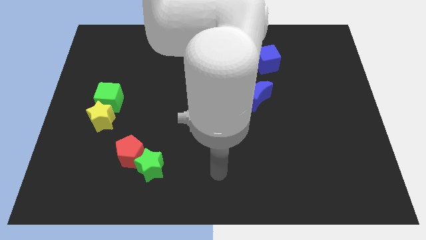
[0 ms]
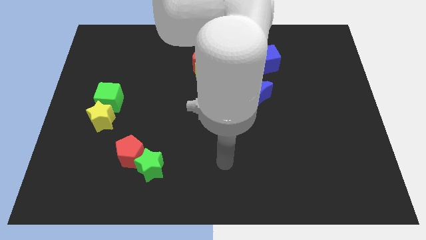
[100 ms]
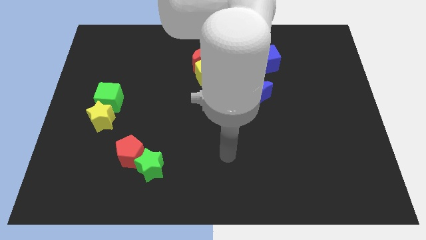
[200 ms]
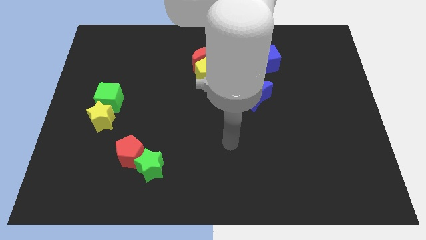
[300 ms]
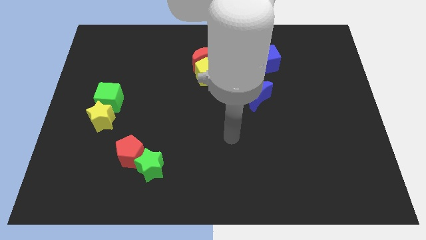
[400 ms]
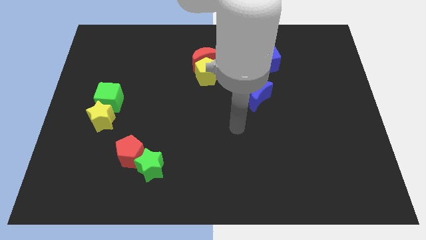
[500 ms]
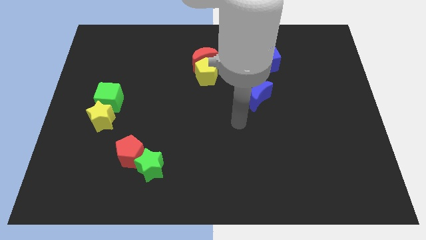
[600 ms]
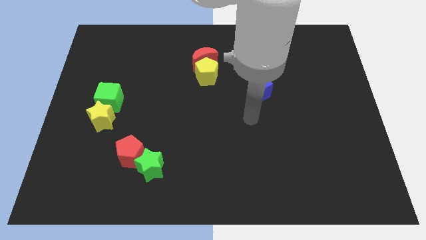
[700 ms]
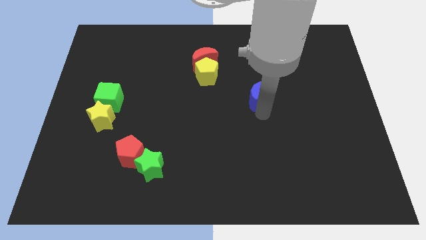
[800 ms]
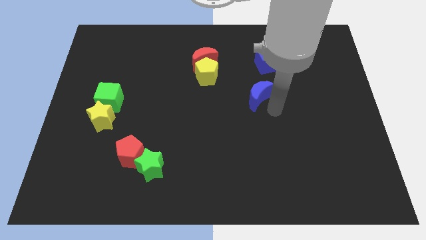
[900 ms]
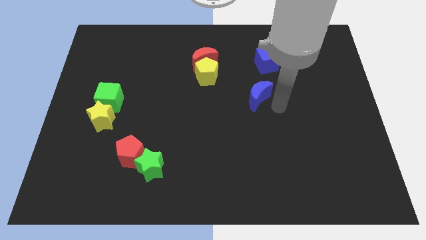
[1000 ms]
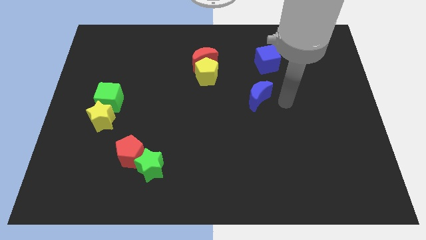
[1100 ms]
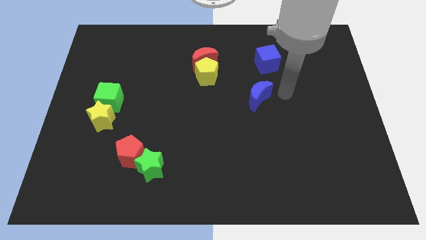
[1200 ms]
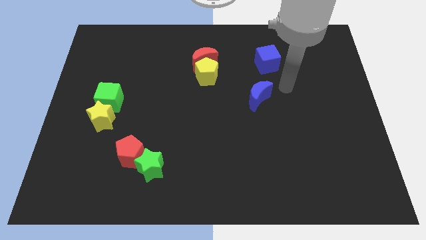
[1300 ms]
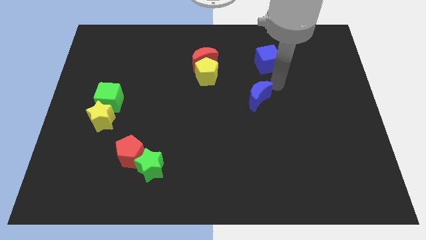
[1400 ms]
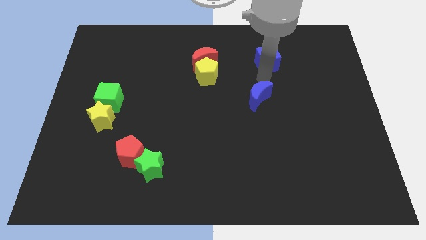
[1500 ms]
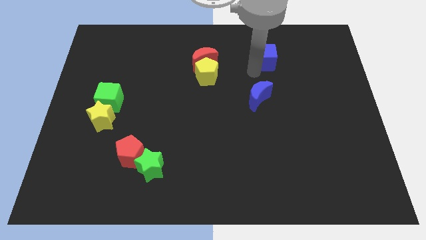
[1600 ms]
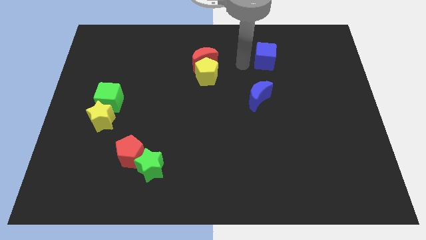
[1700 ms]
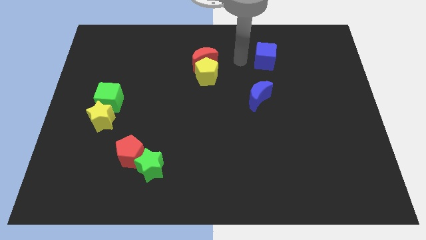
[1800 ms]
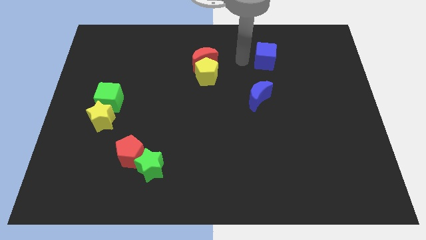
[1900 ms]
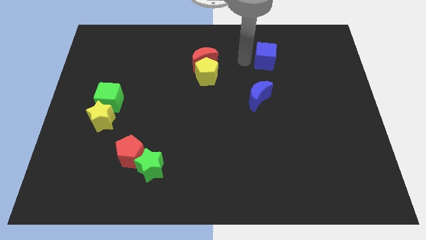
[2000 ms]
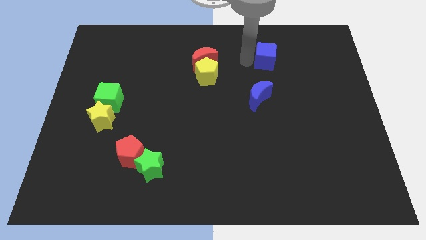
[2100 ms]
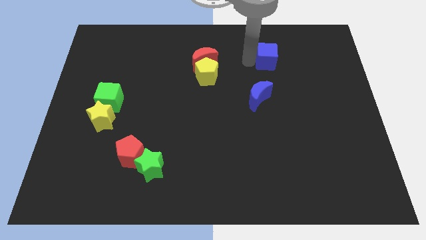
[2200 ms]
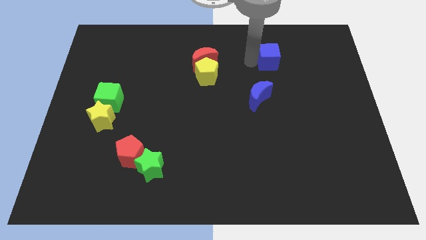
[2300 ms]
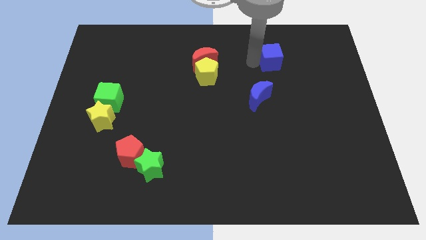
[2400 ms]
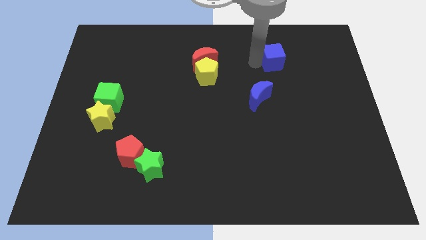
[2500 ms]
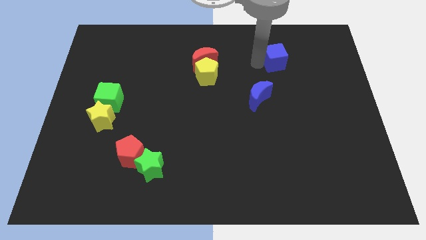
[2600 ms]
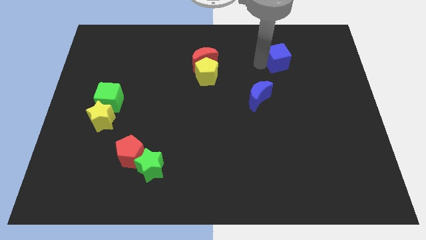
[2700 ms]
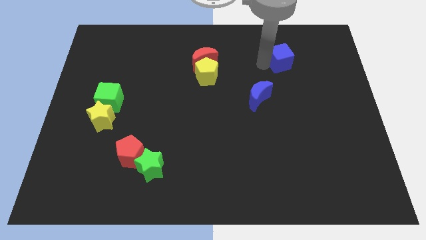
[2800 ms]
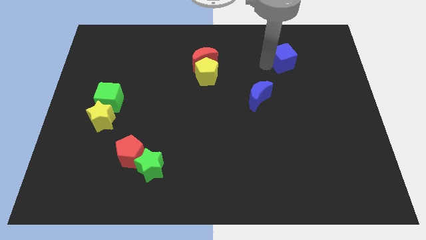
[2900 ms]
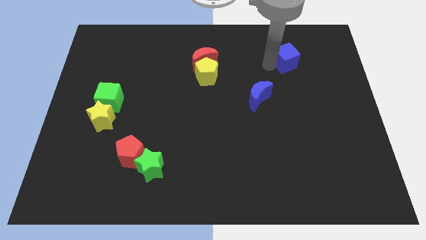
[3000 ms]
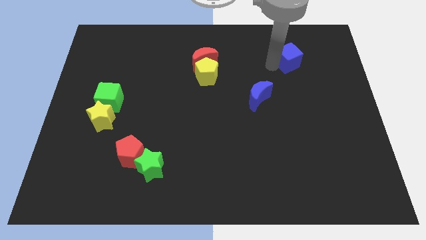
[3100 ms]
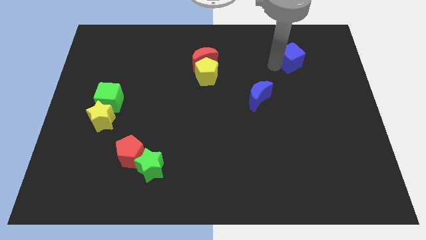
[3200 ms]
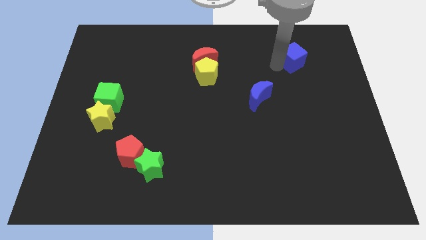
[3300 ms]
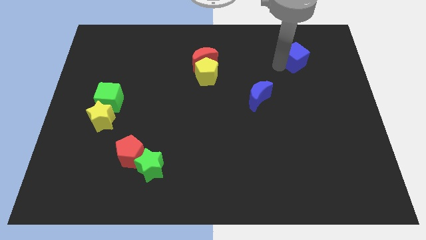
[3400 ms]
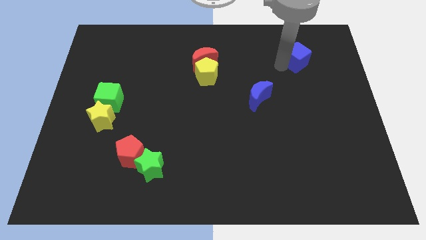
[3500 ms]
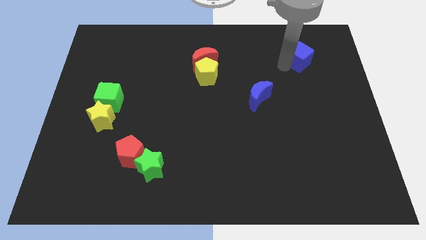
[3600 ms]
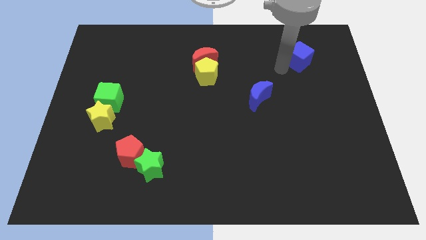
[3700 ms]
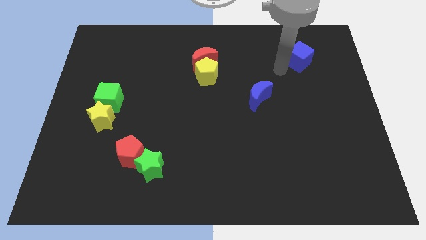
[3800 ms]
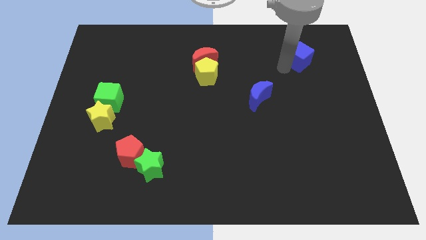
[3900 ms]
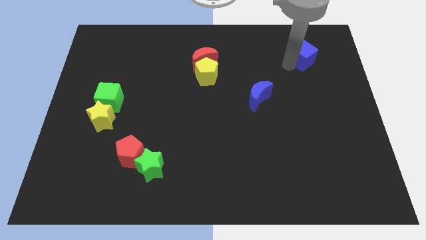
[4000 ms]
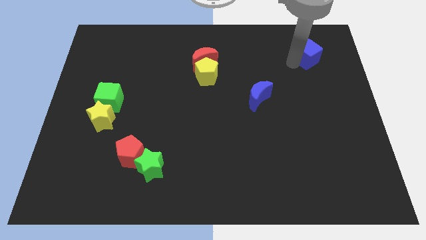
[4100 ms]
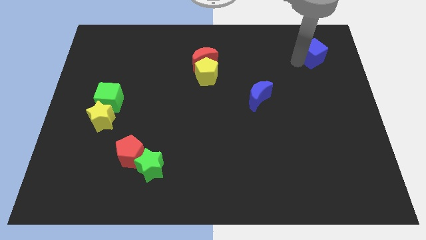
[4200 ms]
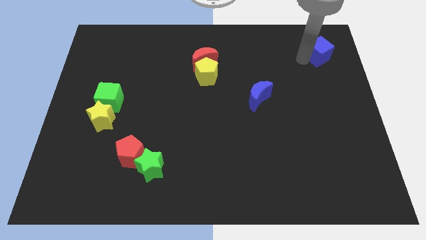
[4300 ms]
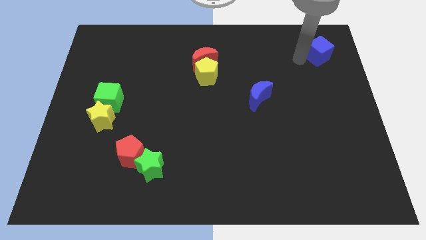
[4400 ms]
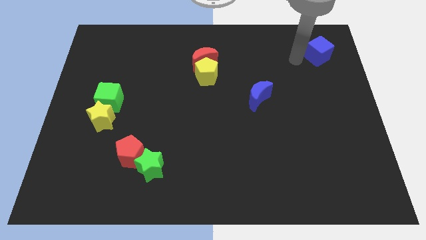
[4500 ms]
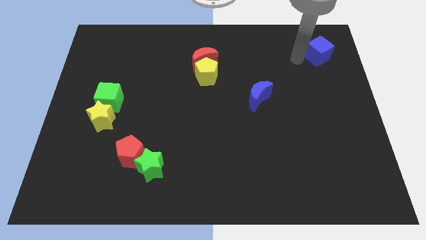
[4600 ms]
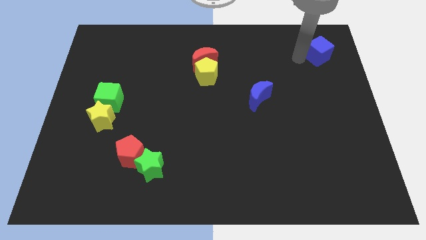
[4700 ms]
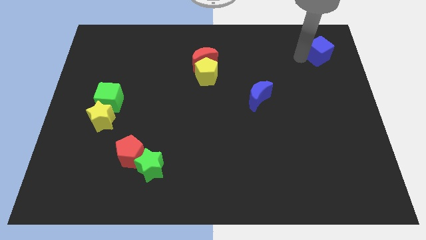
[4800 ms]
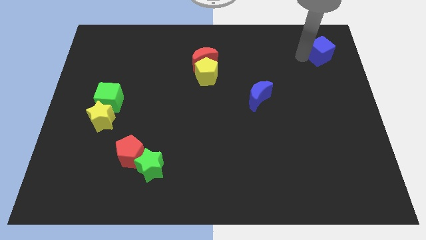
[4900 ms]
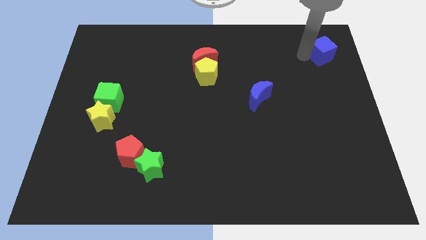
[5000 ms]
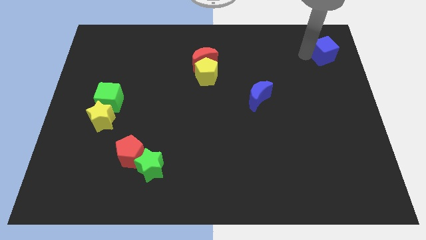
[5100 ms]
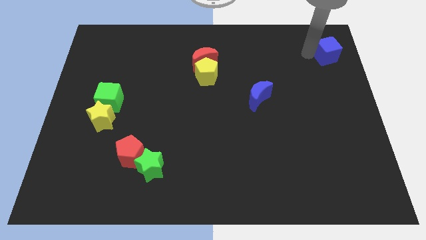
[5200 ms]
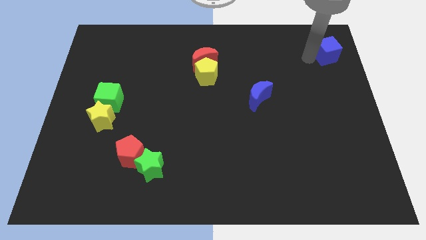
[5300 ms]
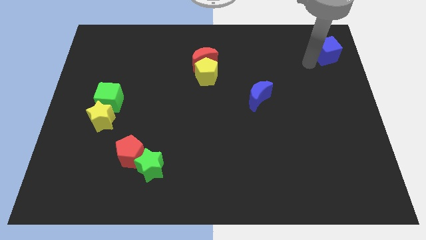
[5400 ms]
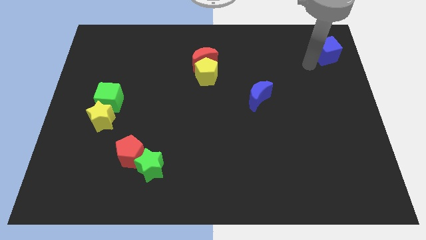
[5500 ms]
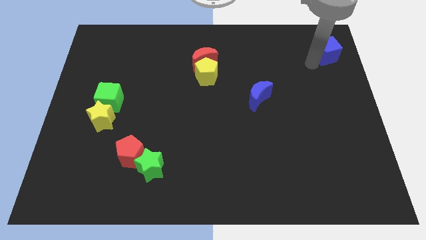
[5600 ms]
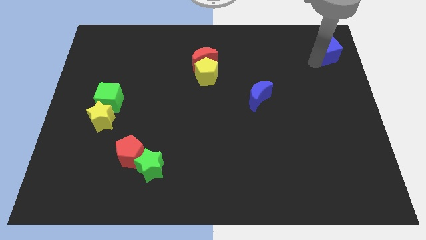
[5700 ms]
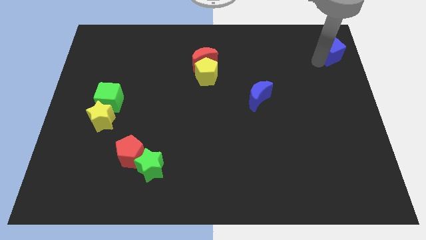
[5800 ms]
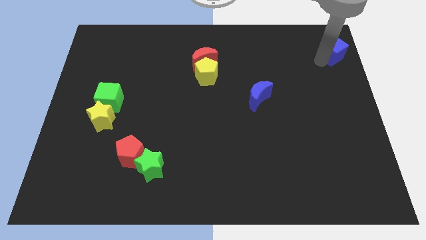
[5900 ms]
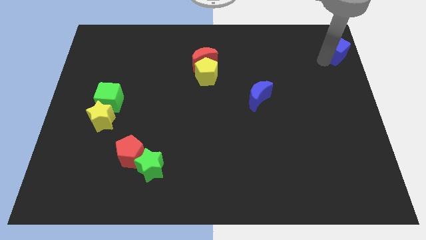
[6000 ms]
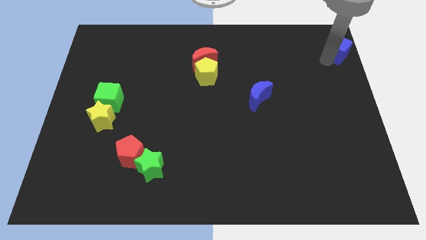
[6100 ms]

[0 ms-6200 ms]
slide the blue cube to the top right of the board

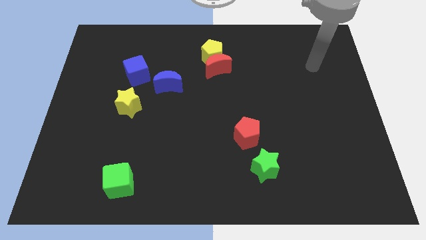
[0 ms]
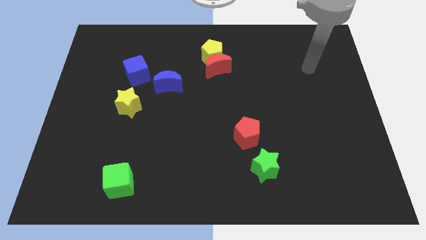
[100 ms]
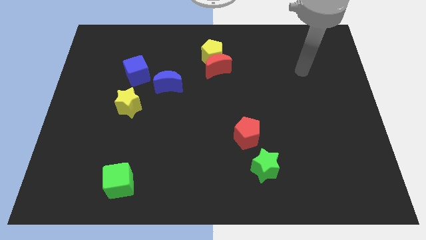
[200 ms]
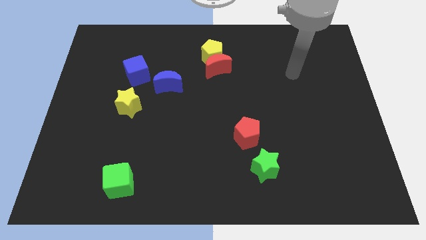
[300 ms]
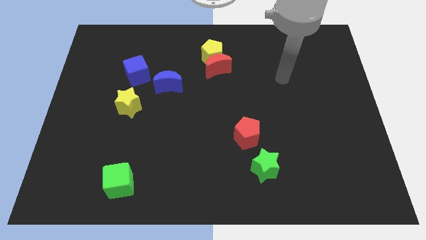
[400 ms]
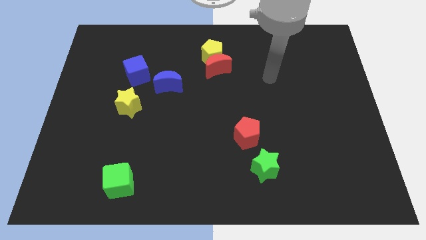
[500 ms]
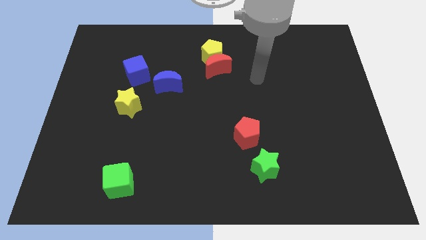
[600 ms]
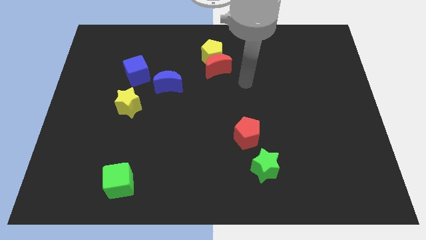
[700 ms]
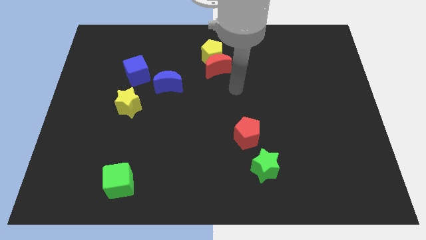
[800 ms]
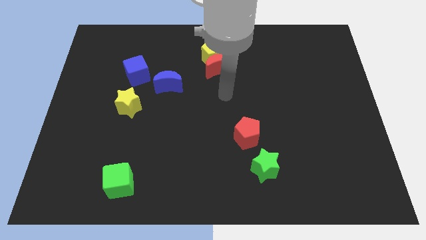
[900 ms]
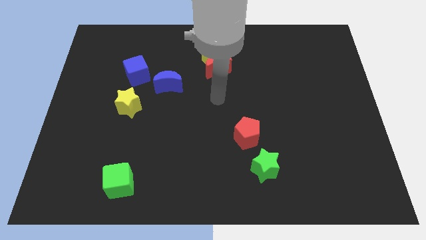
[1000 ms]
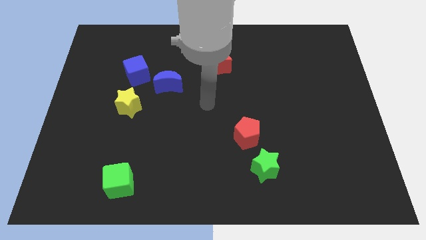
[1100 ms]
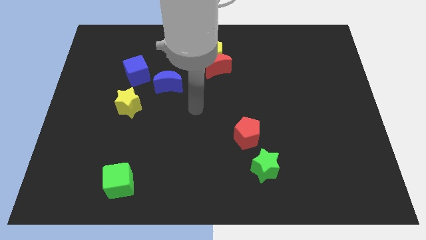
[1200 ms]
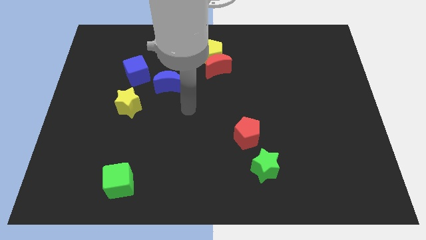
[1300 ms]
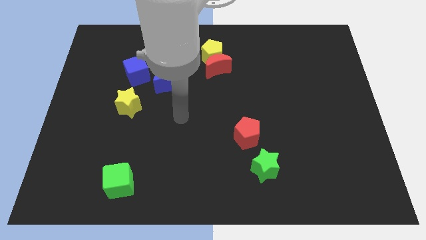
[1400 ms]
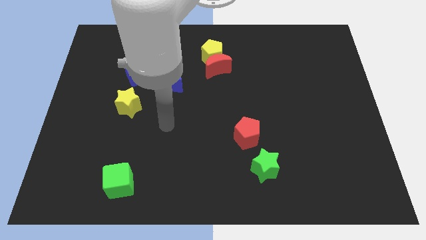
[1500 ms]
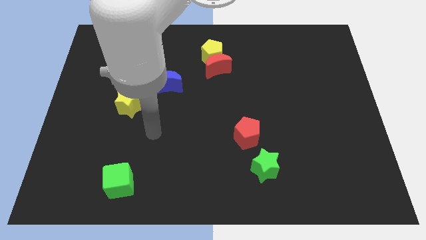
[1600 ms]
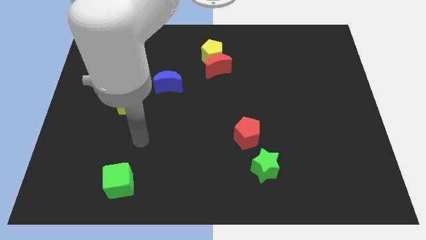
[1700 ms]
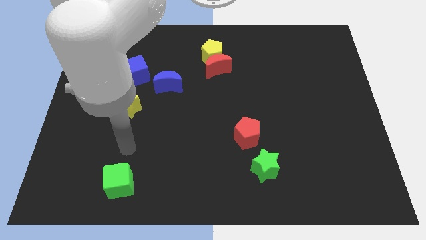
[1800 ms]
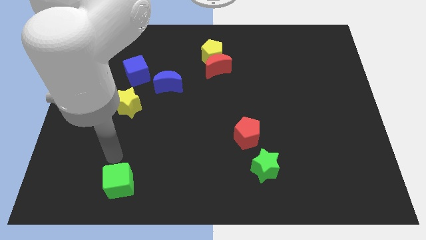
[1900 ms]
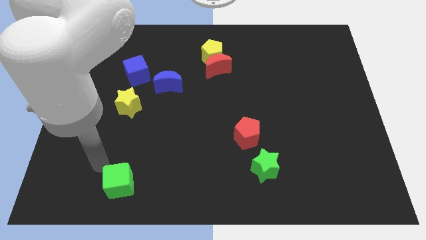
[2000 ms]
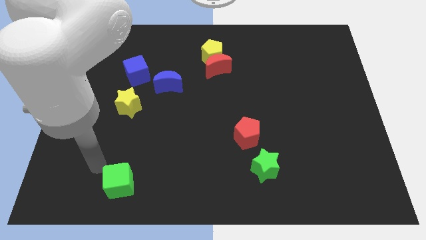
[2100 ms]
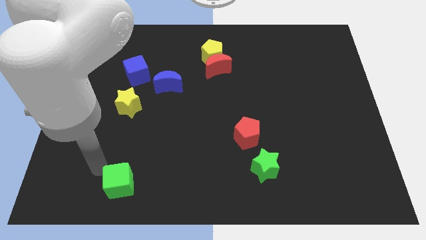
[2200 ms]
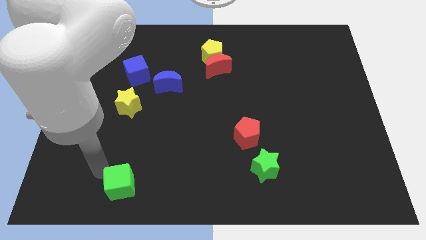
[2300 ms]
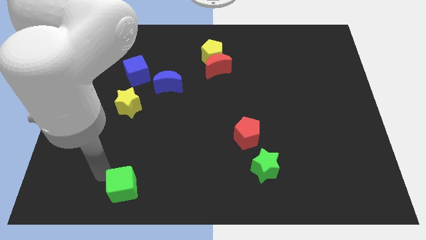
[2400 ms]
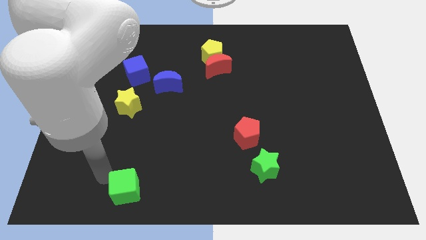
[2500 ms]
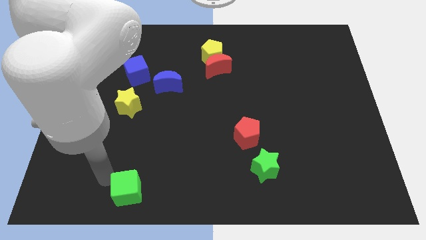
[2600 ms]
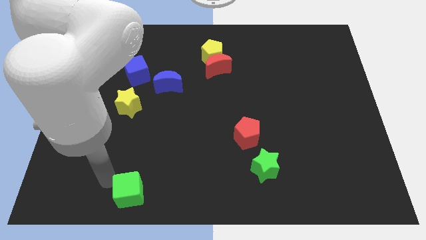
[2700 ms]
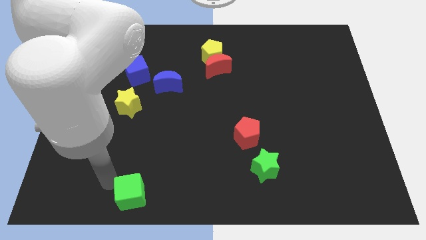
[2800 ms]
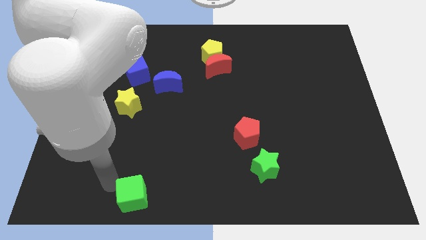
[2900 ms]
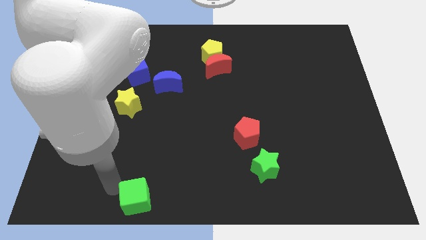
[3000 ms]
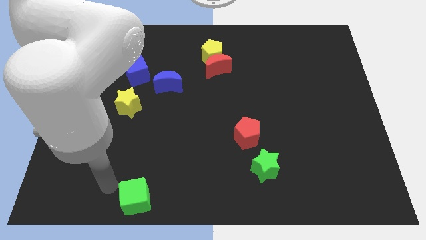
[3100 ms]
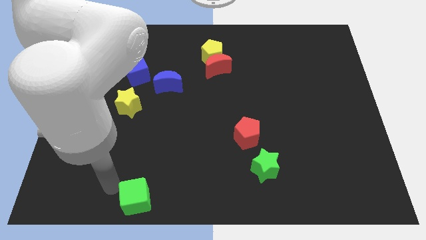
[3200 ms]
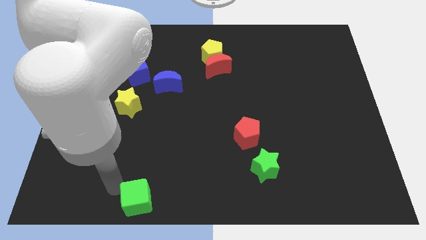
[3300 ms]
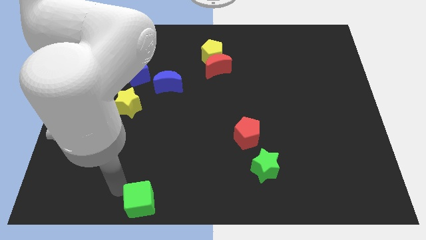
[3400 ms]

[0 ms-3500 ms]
push the green cube to the bottom
